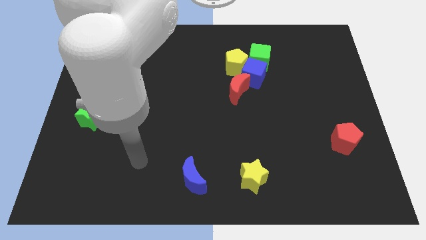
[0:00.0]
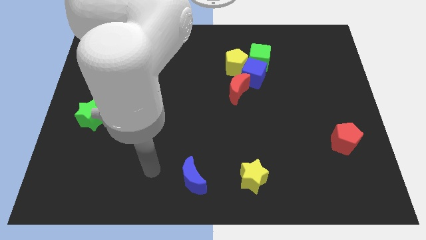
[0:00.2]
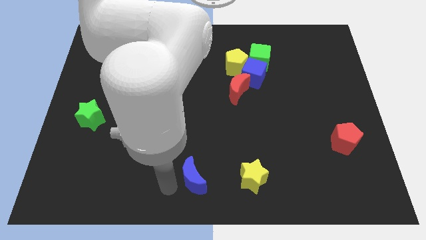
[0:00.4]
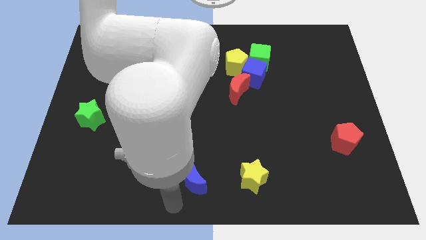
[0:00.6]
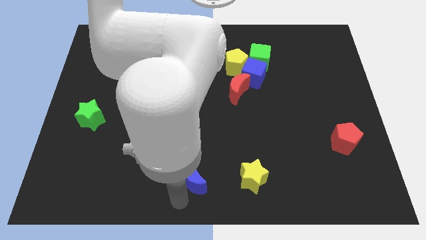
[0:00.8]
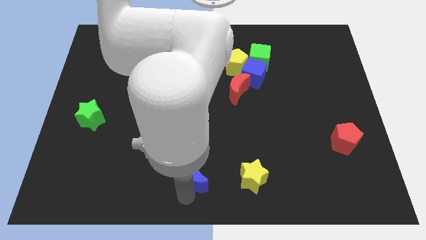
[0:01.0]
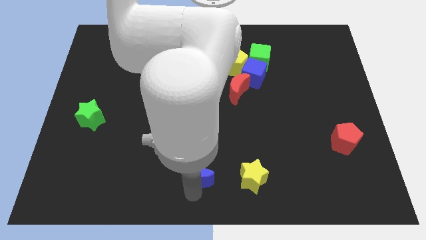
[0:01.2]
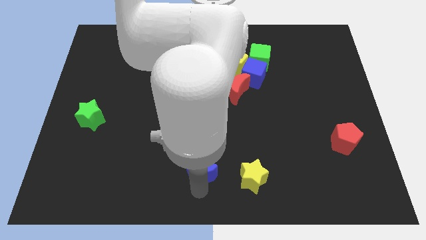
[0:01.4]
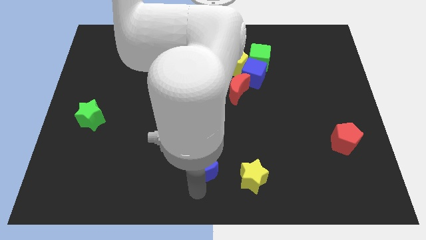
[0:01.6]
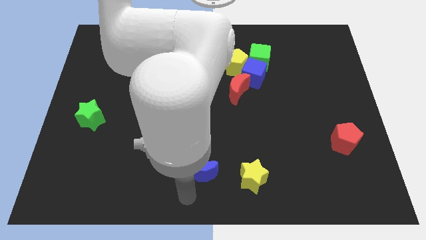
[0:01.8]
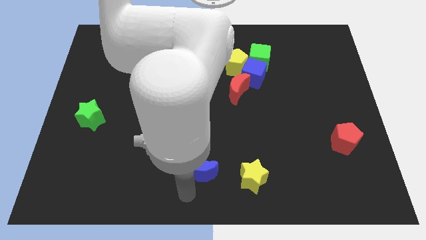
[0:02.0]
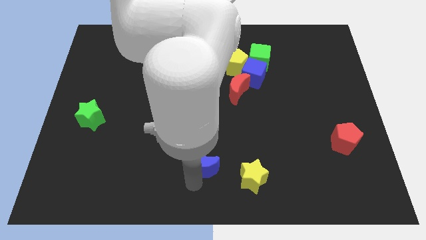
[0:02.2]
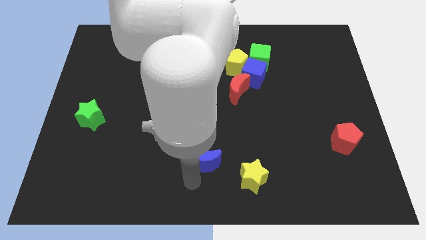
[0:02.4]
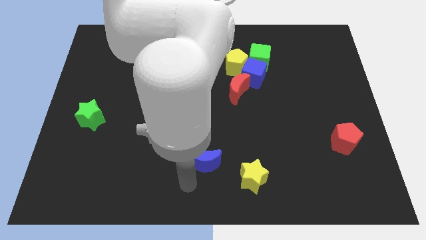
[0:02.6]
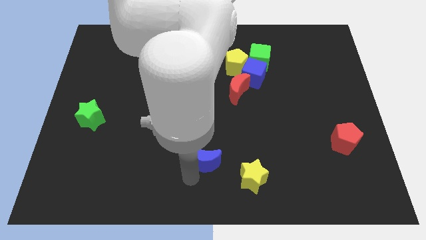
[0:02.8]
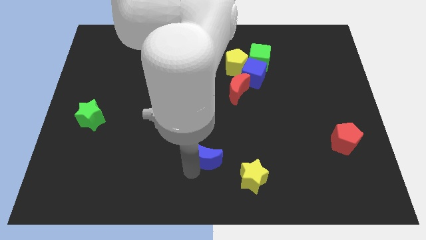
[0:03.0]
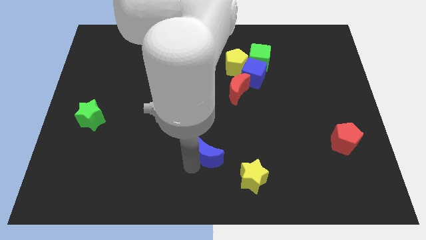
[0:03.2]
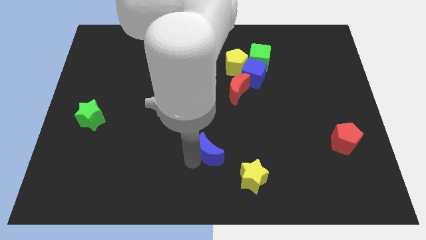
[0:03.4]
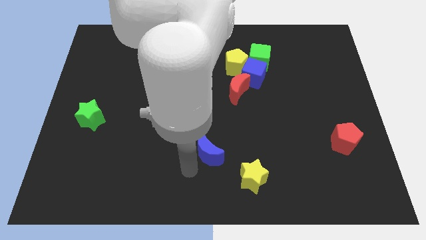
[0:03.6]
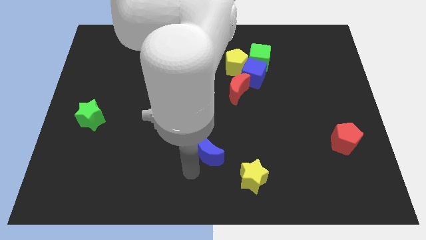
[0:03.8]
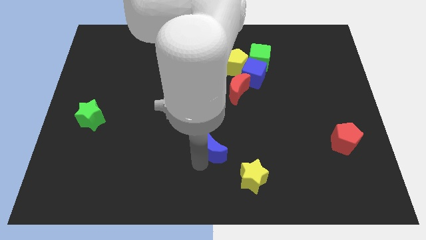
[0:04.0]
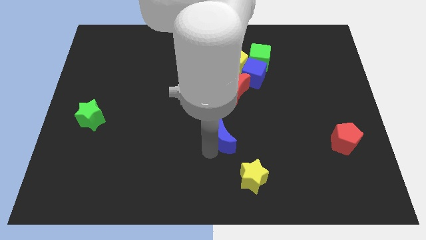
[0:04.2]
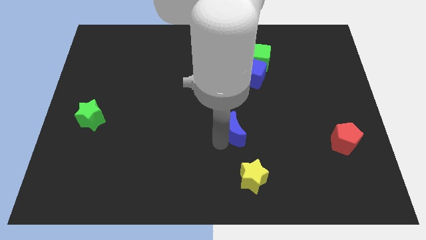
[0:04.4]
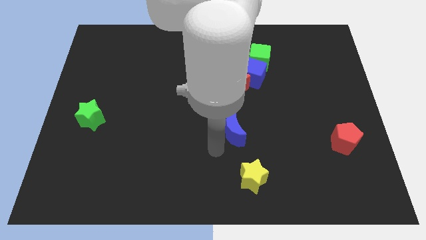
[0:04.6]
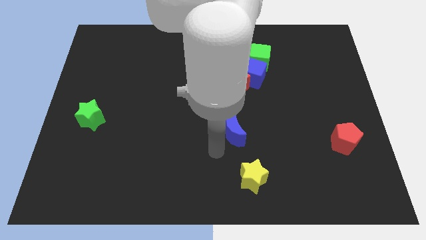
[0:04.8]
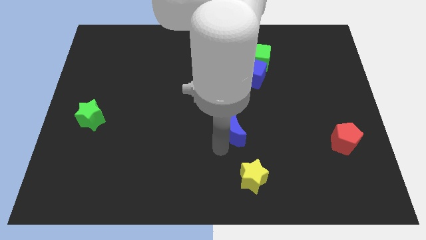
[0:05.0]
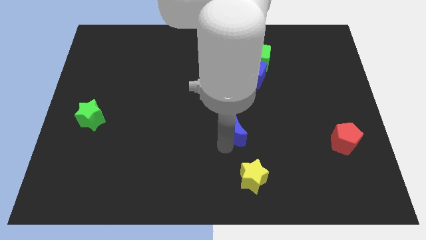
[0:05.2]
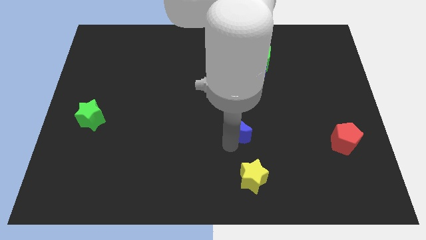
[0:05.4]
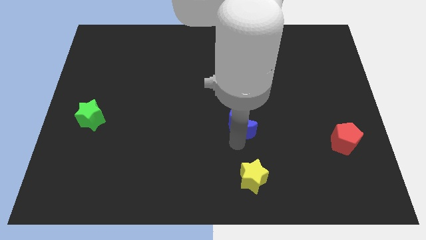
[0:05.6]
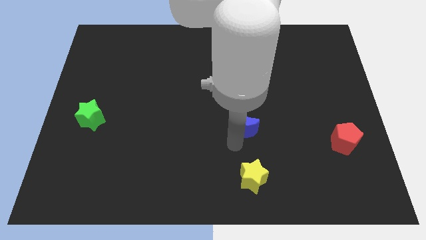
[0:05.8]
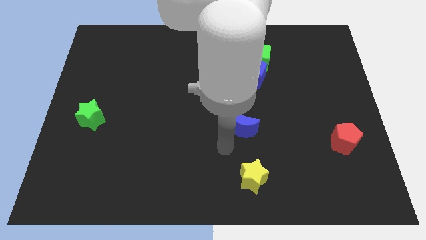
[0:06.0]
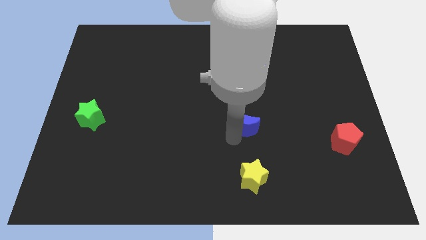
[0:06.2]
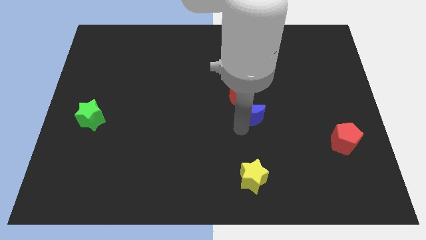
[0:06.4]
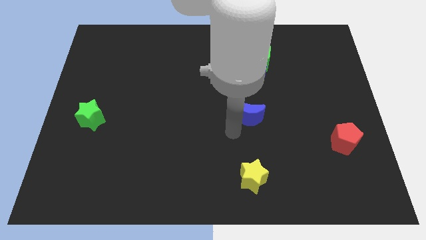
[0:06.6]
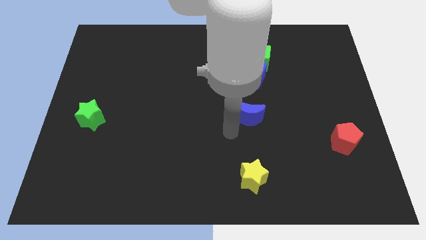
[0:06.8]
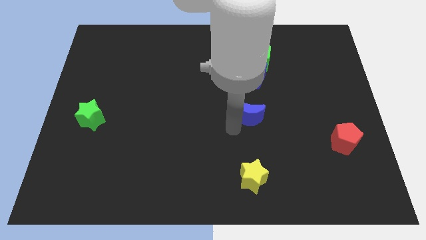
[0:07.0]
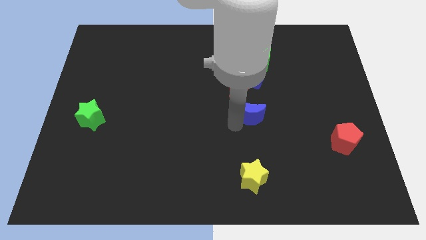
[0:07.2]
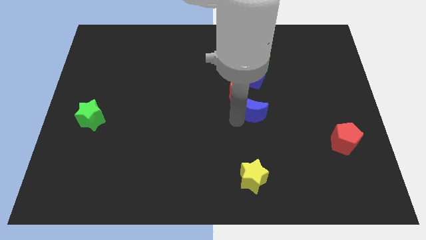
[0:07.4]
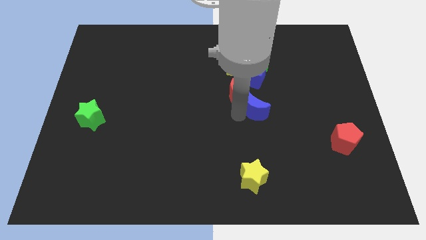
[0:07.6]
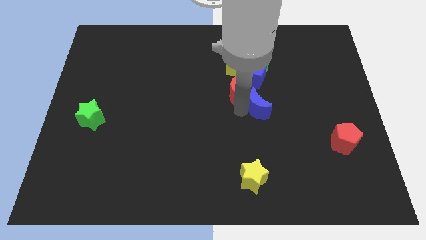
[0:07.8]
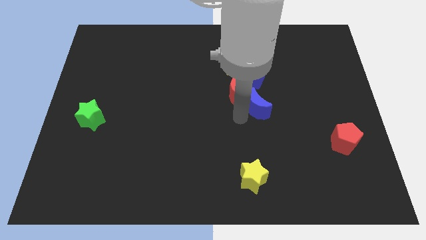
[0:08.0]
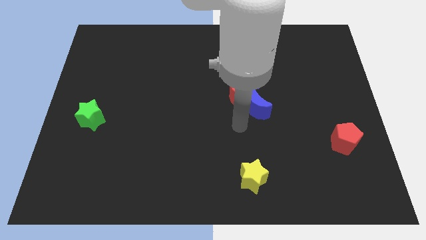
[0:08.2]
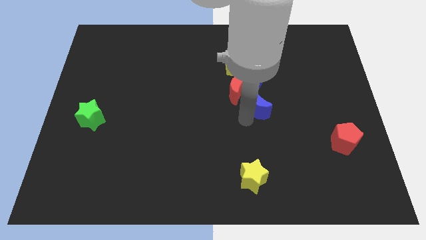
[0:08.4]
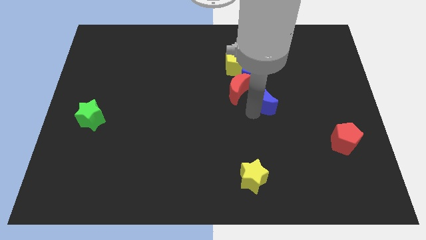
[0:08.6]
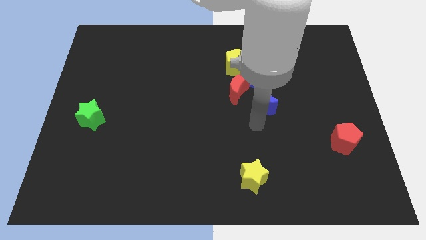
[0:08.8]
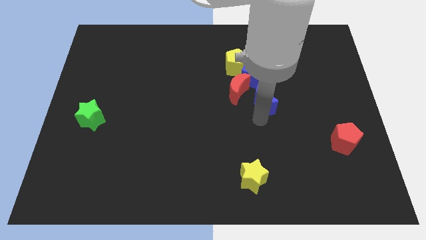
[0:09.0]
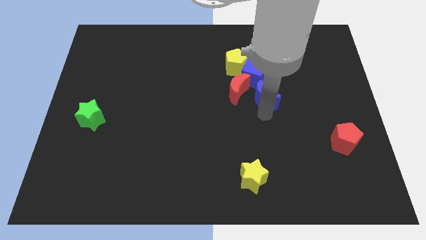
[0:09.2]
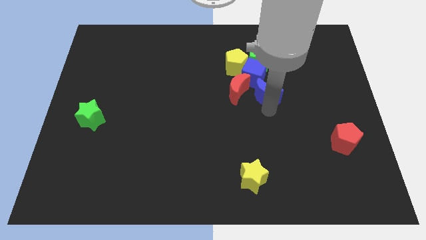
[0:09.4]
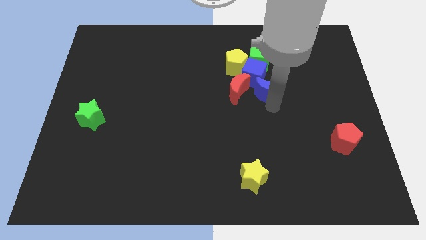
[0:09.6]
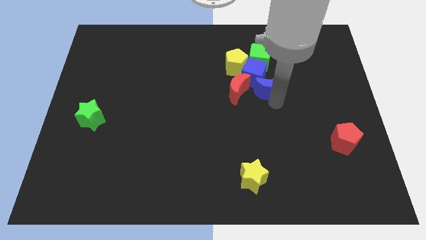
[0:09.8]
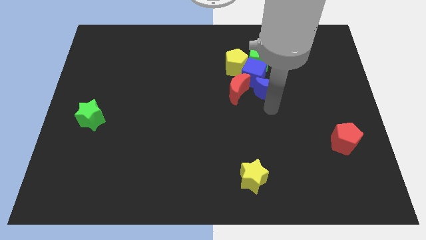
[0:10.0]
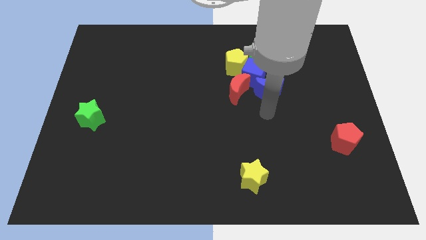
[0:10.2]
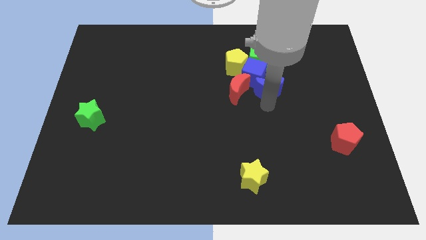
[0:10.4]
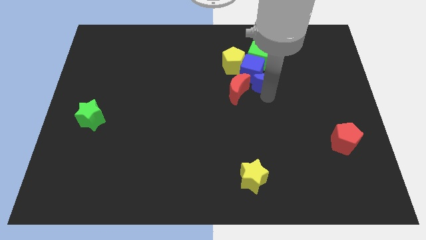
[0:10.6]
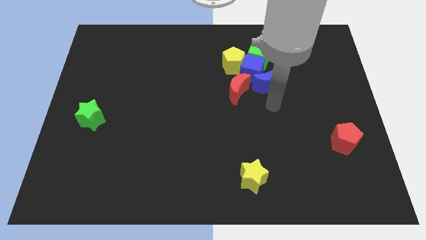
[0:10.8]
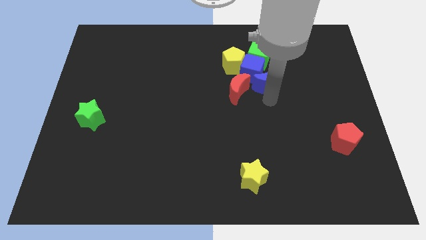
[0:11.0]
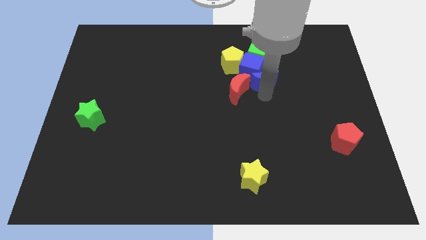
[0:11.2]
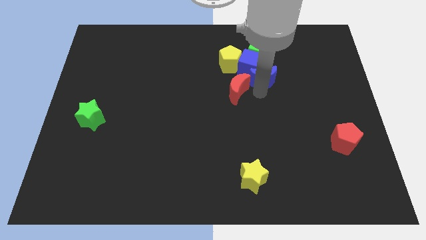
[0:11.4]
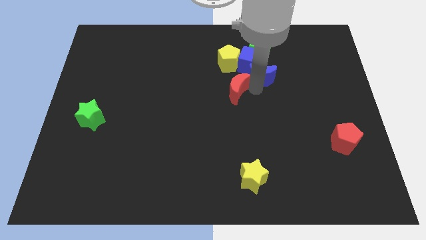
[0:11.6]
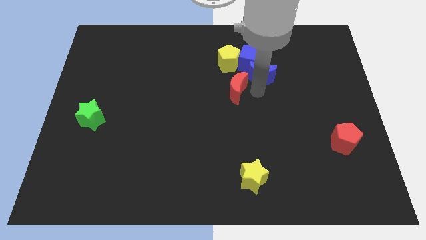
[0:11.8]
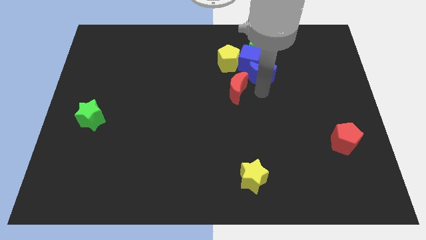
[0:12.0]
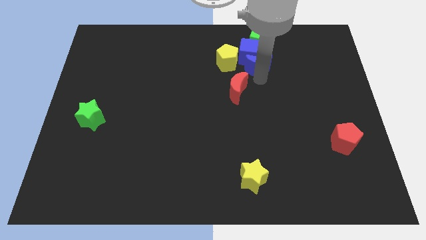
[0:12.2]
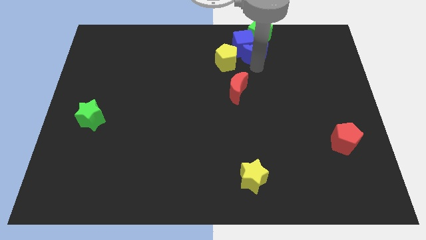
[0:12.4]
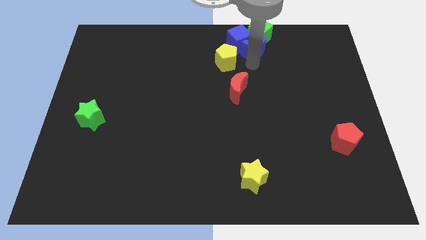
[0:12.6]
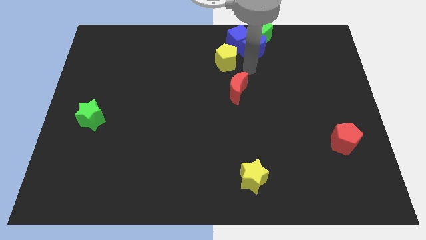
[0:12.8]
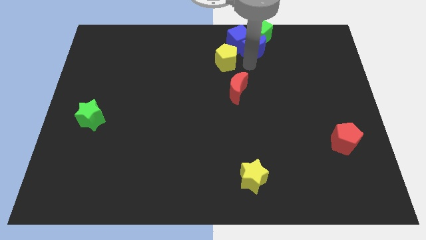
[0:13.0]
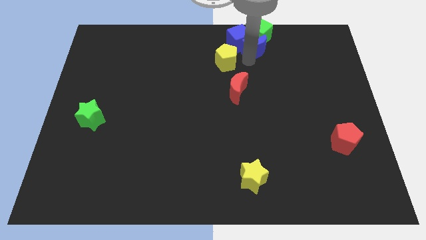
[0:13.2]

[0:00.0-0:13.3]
push the blue moon close to the green cube
